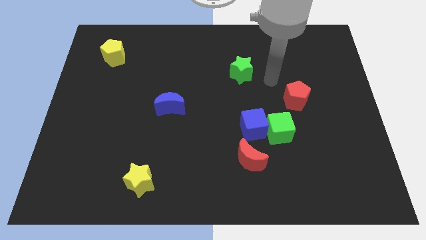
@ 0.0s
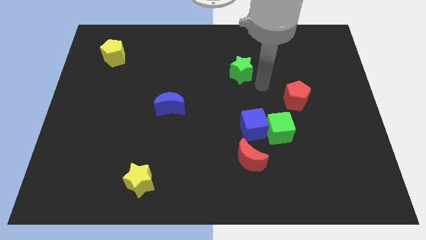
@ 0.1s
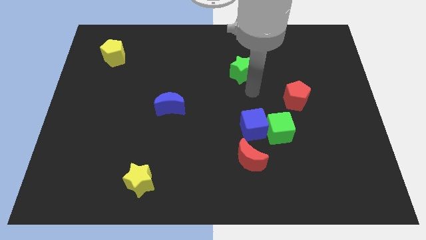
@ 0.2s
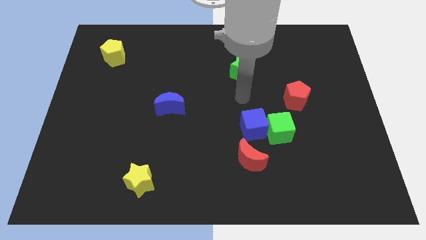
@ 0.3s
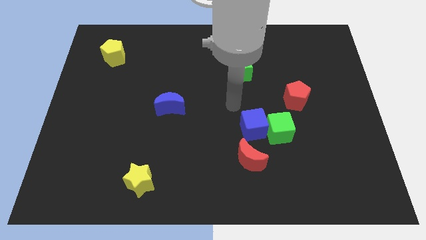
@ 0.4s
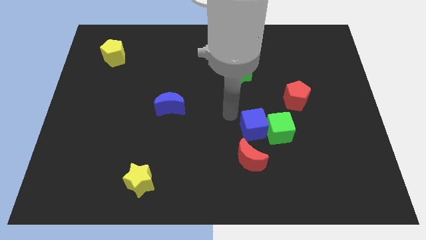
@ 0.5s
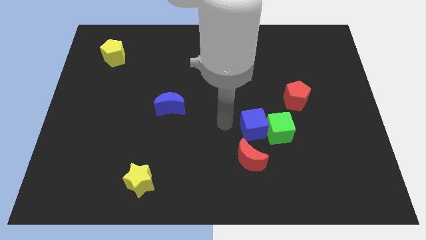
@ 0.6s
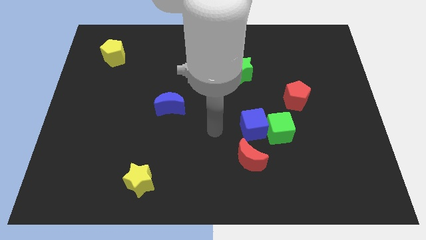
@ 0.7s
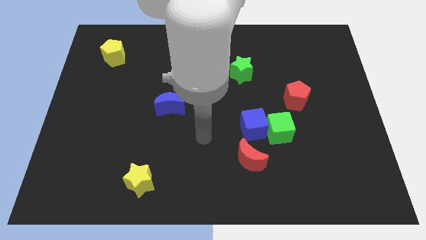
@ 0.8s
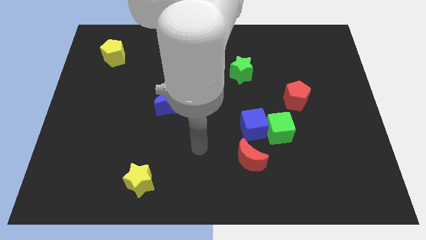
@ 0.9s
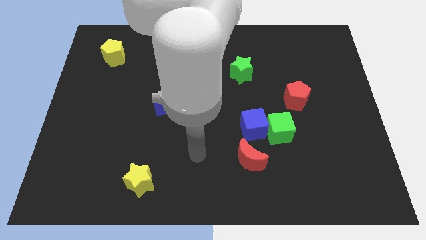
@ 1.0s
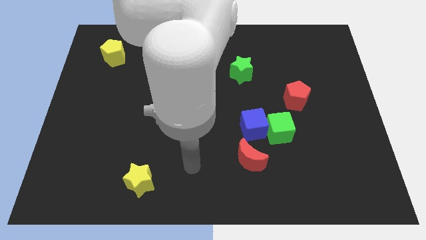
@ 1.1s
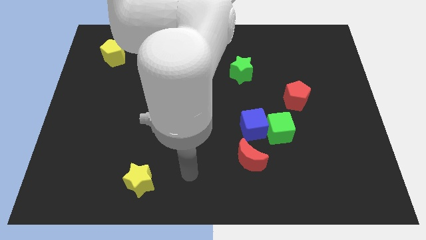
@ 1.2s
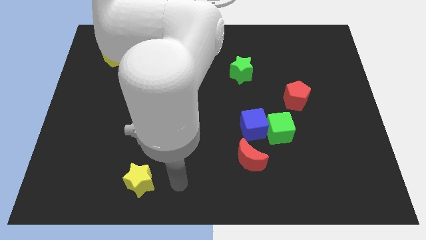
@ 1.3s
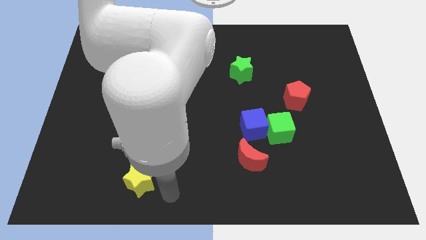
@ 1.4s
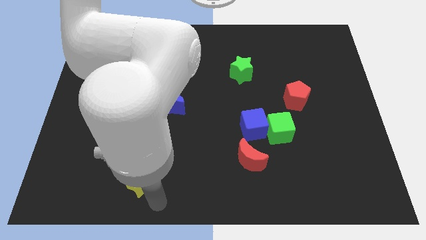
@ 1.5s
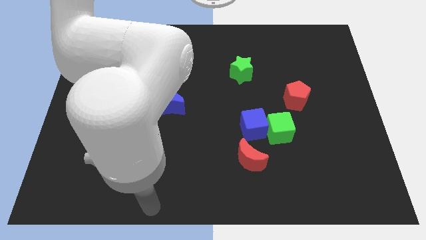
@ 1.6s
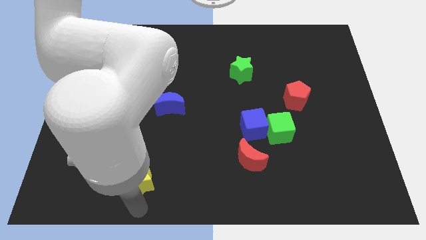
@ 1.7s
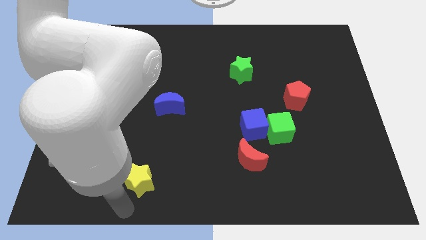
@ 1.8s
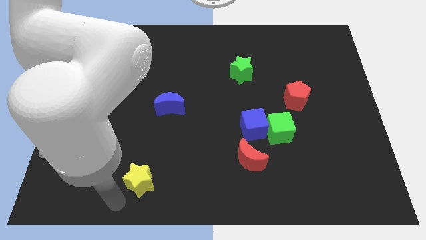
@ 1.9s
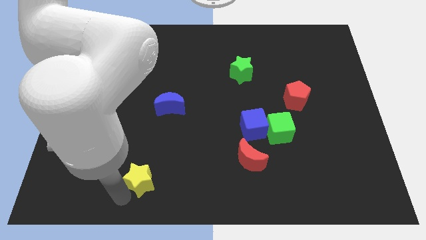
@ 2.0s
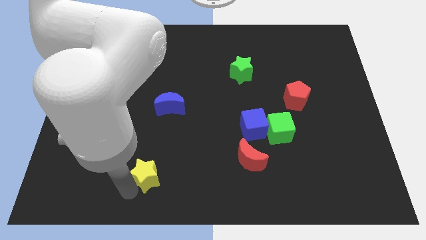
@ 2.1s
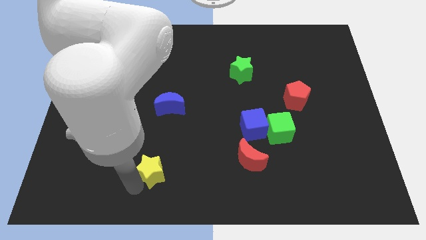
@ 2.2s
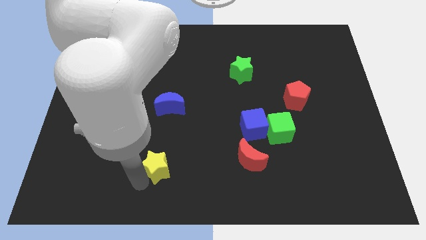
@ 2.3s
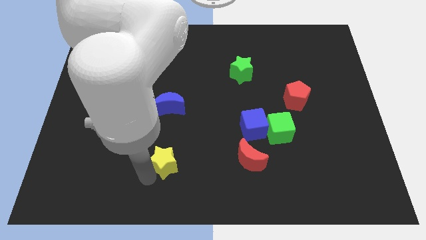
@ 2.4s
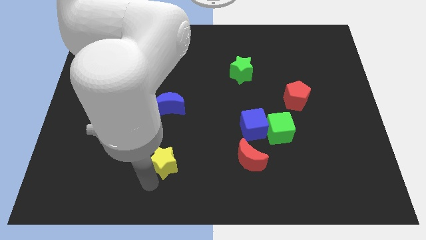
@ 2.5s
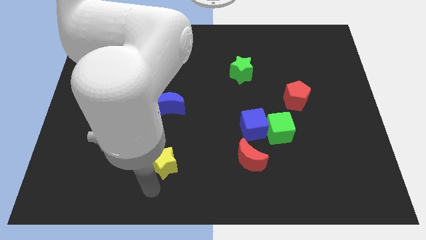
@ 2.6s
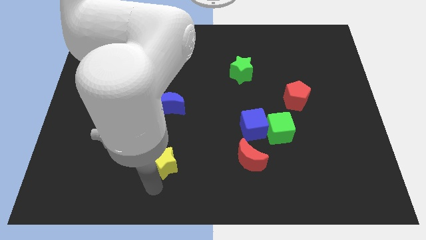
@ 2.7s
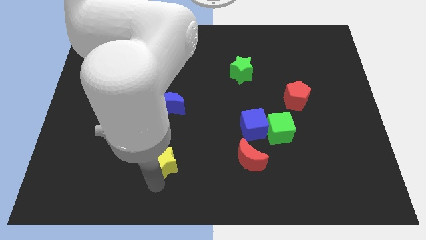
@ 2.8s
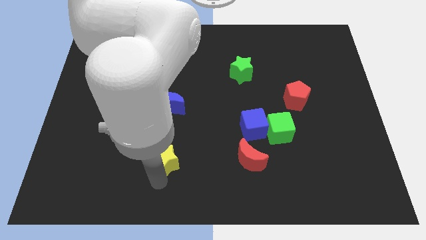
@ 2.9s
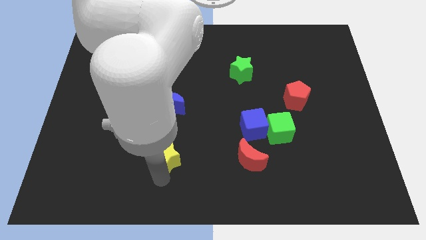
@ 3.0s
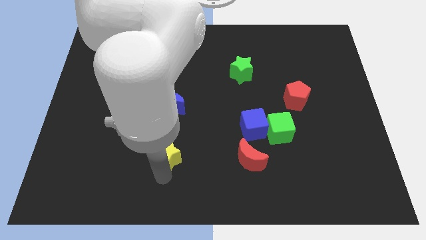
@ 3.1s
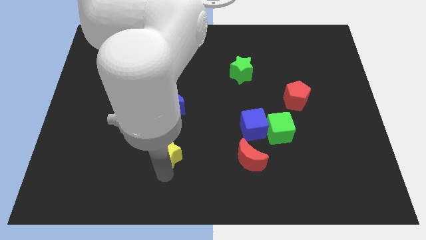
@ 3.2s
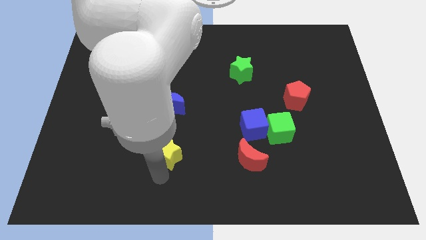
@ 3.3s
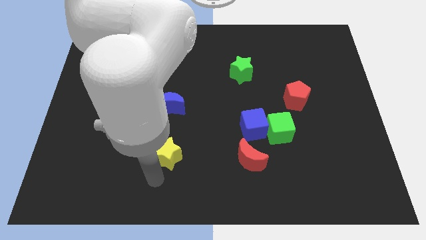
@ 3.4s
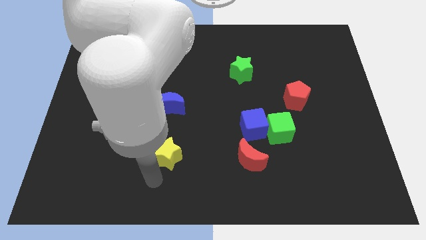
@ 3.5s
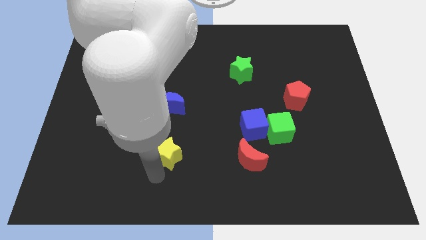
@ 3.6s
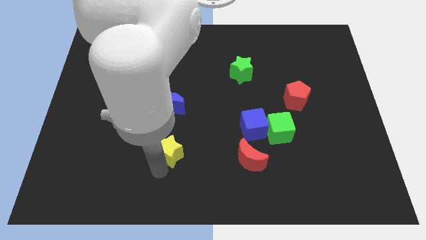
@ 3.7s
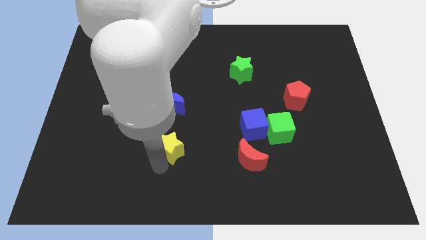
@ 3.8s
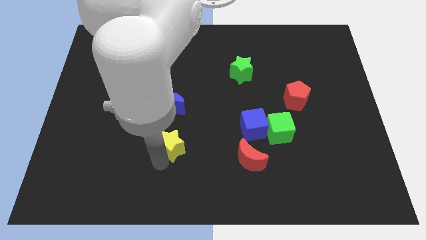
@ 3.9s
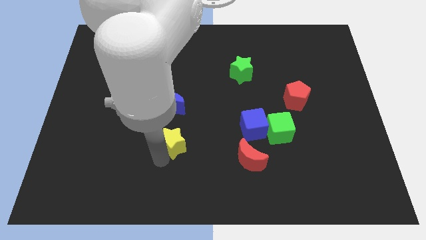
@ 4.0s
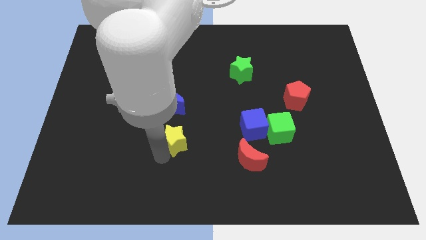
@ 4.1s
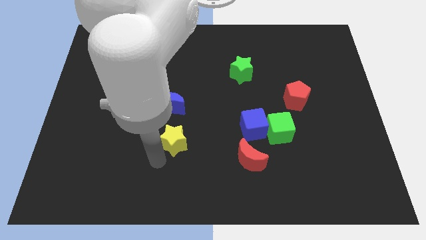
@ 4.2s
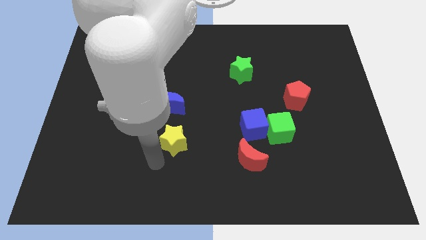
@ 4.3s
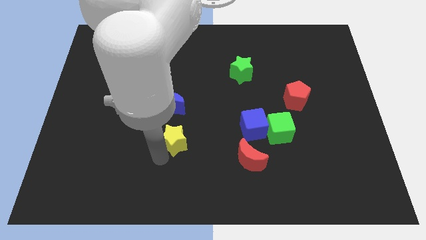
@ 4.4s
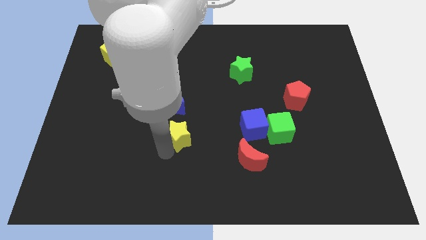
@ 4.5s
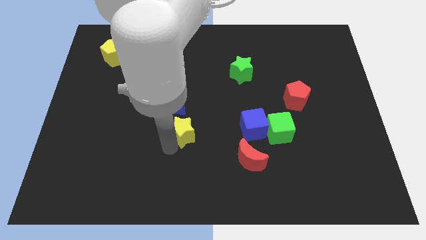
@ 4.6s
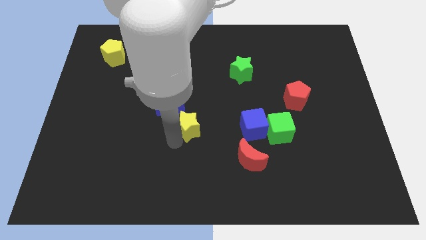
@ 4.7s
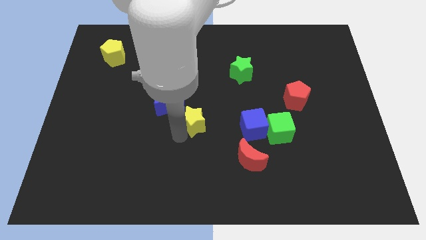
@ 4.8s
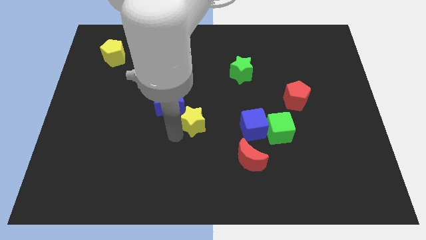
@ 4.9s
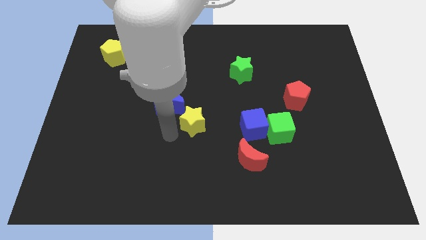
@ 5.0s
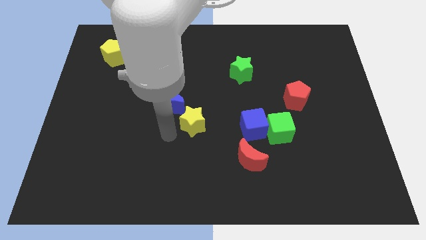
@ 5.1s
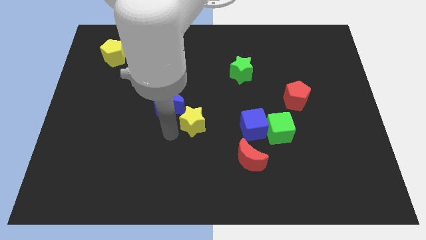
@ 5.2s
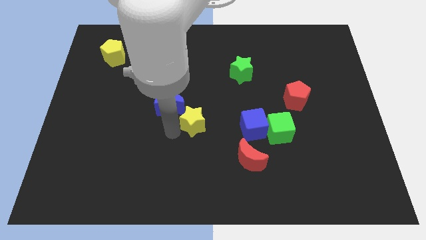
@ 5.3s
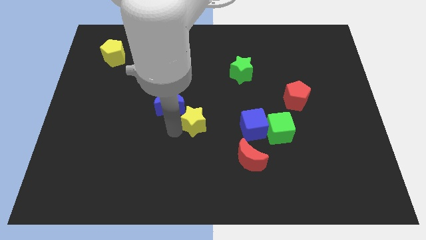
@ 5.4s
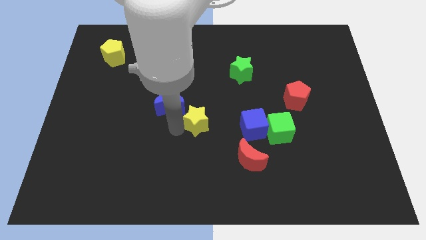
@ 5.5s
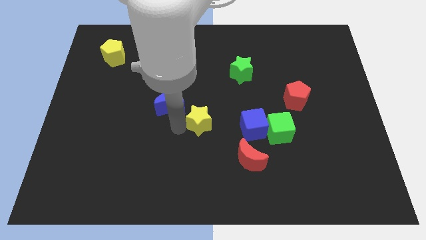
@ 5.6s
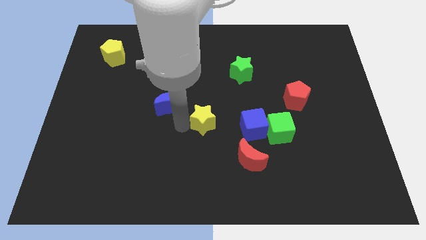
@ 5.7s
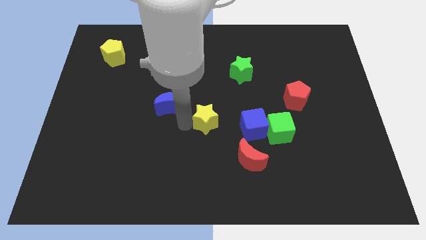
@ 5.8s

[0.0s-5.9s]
move the yellow star up and then right

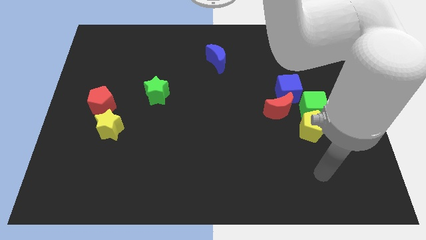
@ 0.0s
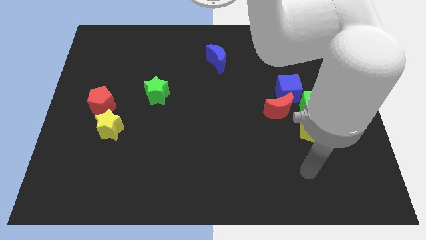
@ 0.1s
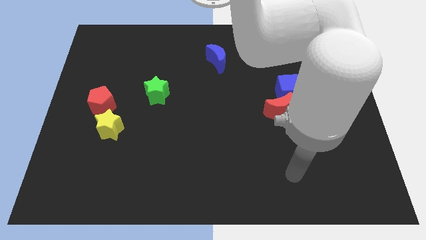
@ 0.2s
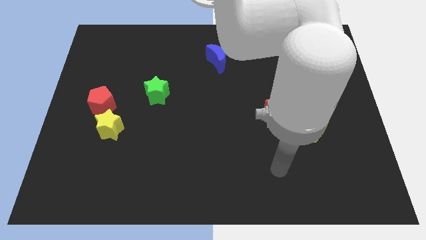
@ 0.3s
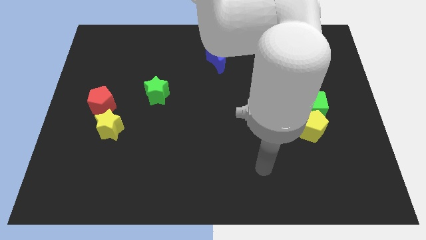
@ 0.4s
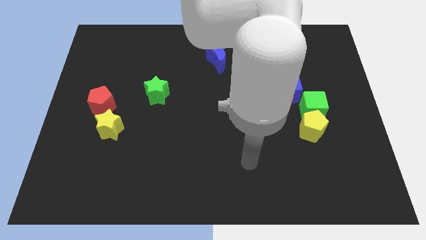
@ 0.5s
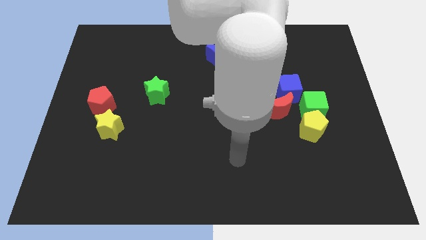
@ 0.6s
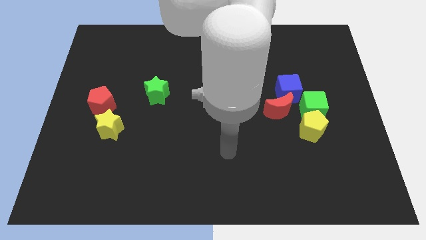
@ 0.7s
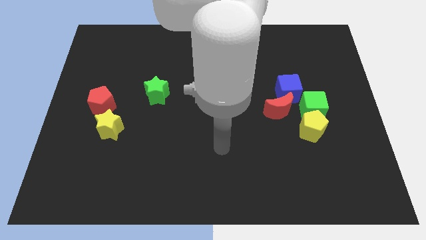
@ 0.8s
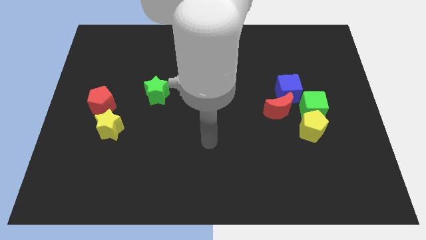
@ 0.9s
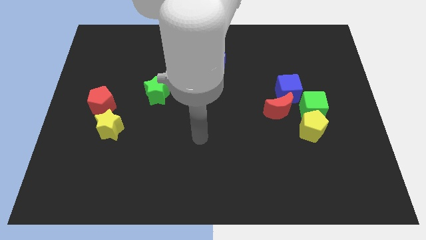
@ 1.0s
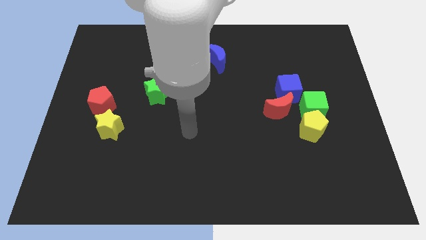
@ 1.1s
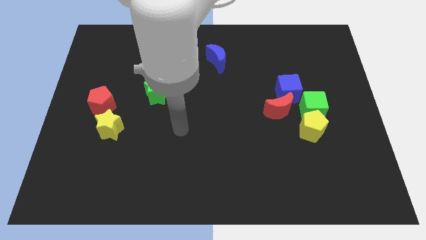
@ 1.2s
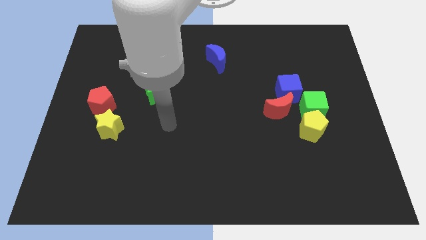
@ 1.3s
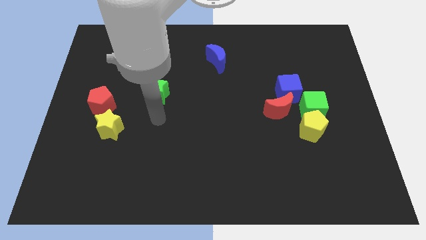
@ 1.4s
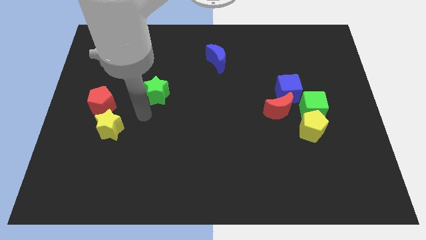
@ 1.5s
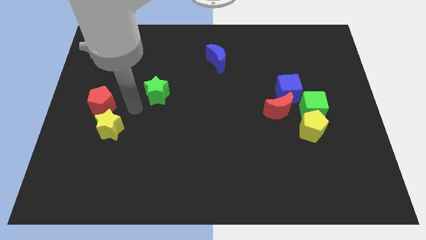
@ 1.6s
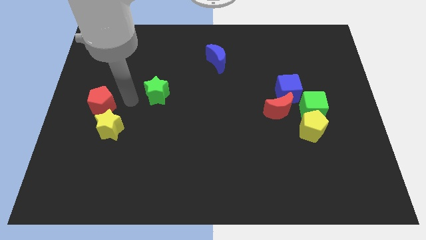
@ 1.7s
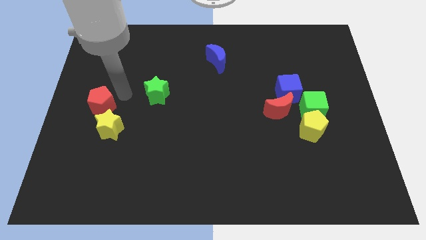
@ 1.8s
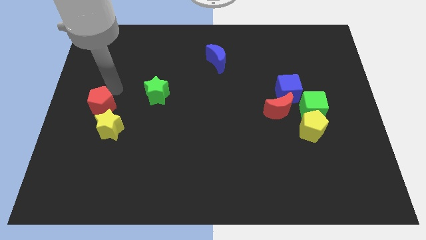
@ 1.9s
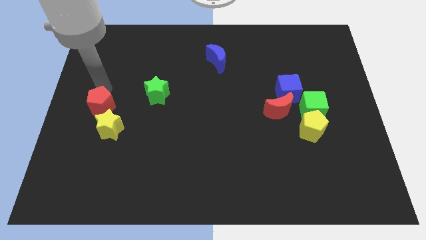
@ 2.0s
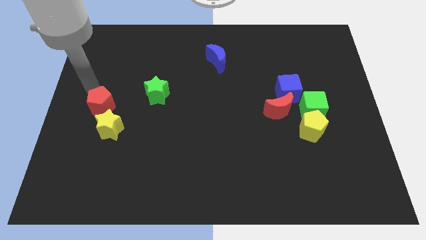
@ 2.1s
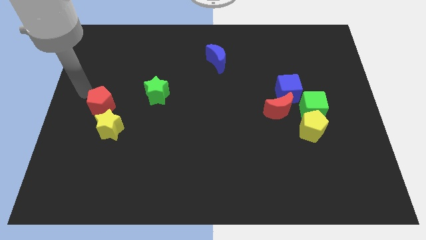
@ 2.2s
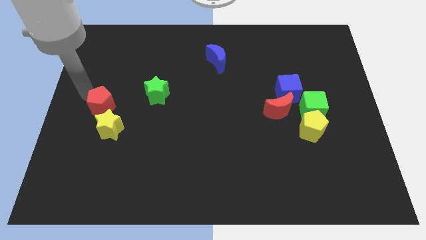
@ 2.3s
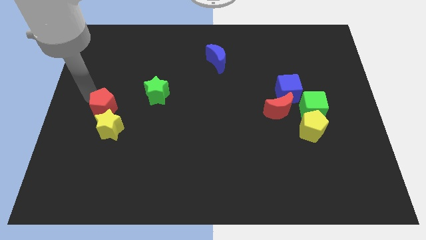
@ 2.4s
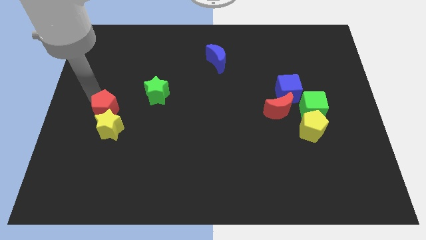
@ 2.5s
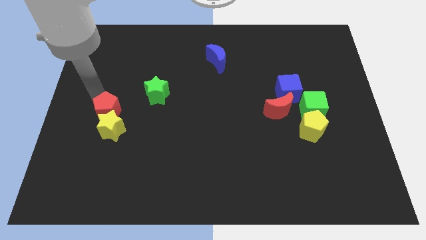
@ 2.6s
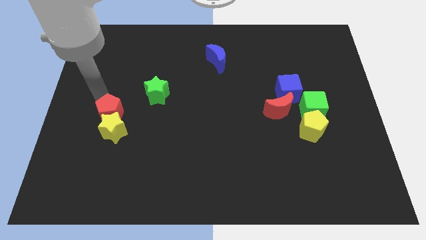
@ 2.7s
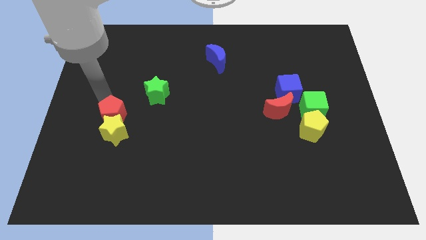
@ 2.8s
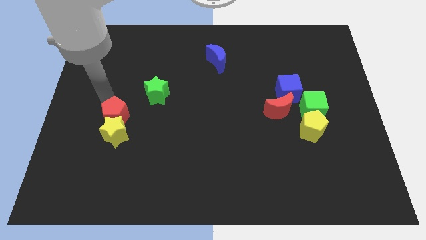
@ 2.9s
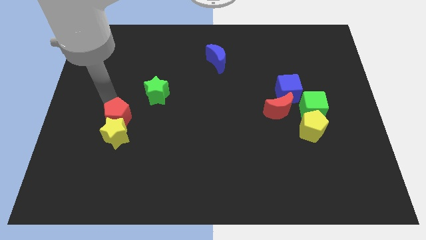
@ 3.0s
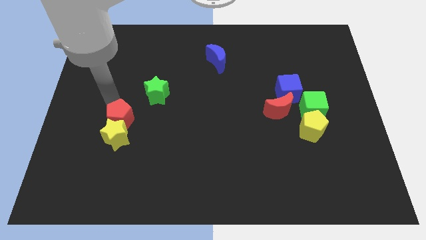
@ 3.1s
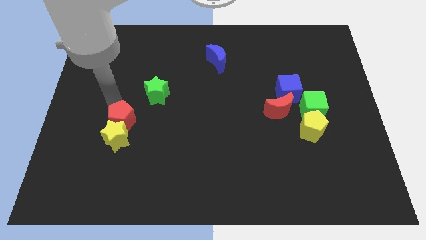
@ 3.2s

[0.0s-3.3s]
move the red pentagon somewhat downwards and right diagonally
